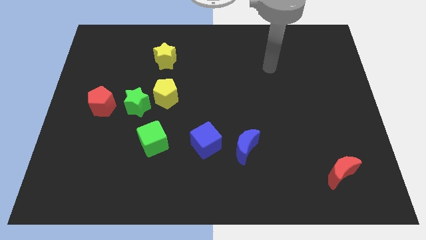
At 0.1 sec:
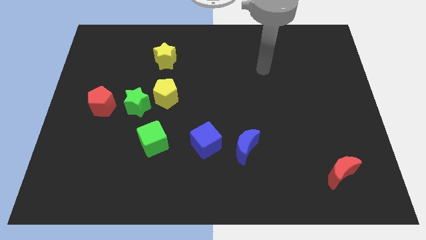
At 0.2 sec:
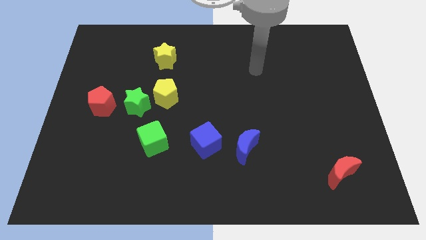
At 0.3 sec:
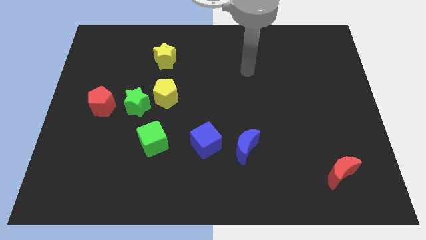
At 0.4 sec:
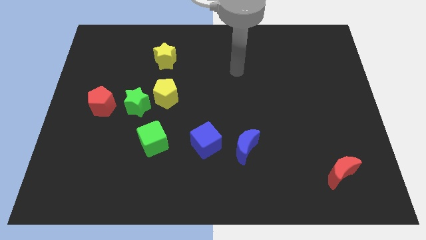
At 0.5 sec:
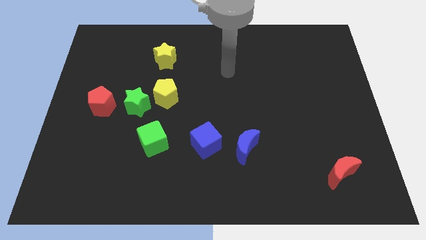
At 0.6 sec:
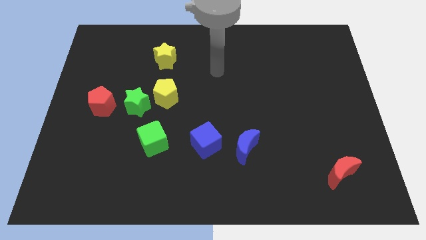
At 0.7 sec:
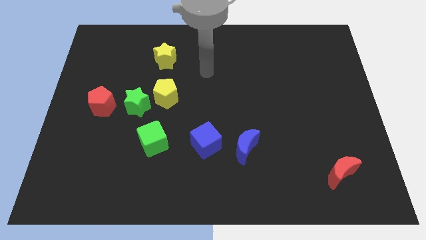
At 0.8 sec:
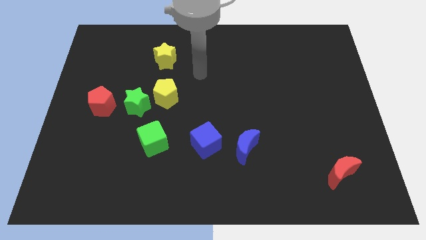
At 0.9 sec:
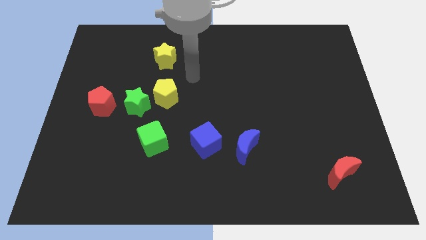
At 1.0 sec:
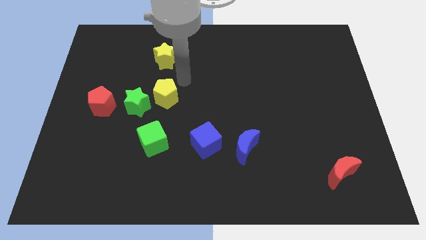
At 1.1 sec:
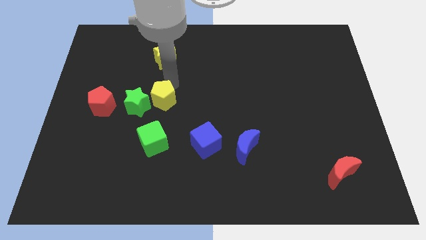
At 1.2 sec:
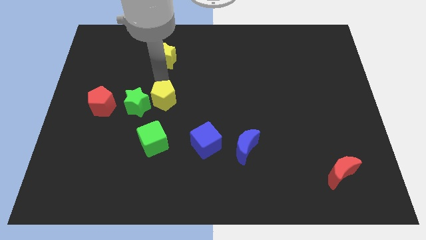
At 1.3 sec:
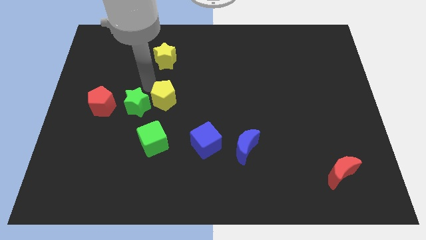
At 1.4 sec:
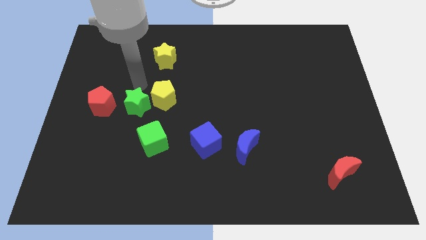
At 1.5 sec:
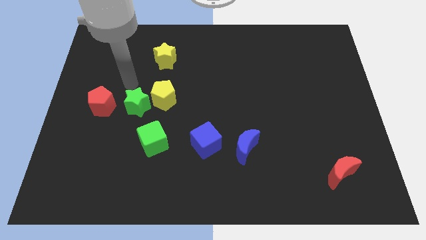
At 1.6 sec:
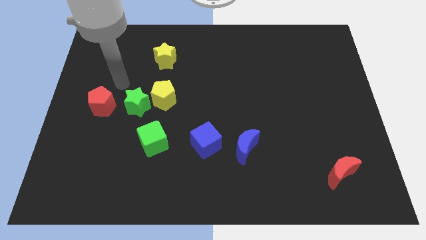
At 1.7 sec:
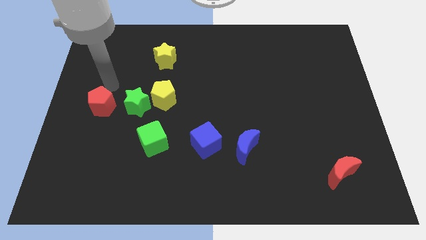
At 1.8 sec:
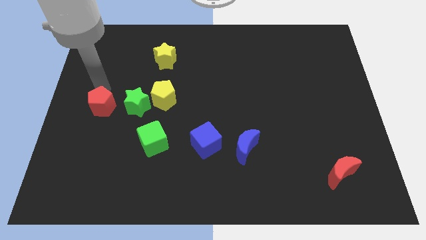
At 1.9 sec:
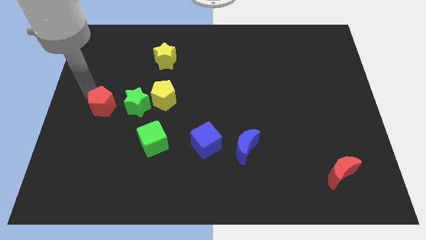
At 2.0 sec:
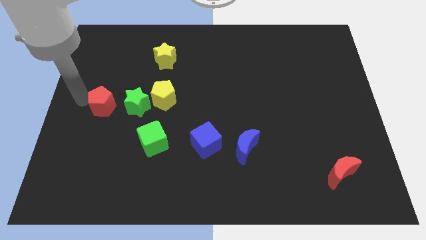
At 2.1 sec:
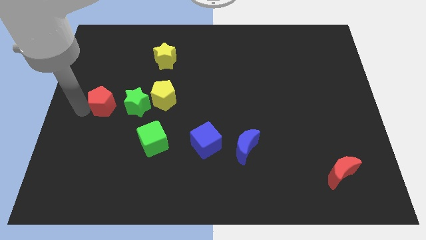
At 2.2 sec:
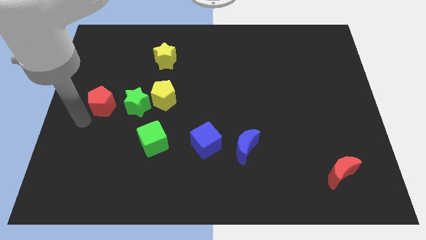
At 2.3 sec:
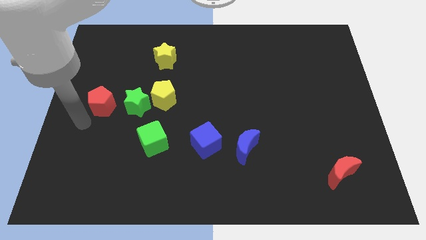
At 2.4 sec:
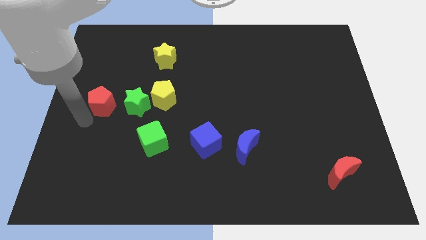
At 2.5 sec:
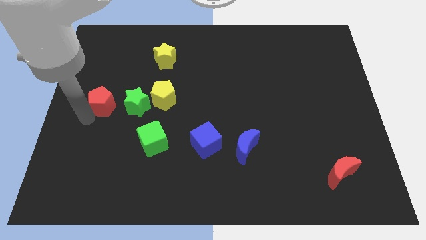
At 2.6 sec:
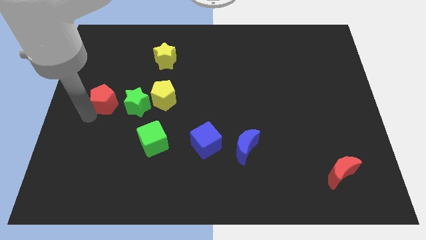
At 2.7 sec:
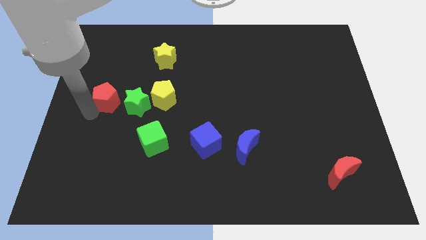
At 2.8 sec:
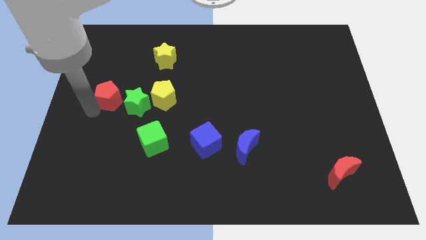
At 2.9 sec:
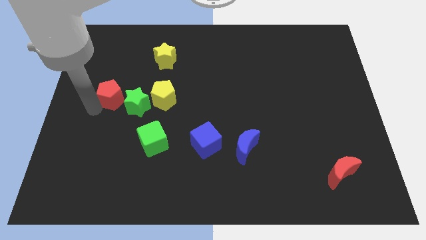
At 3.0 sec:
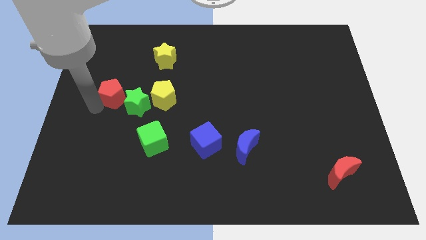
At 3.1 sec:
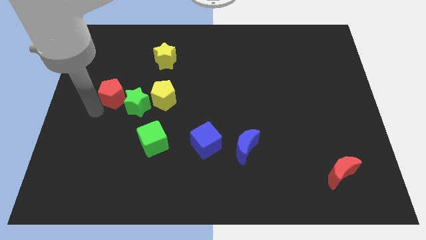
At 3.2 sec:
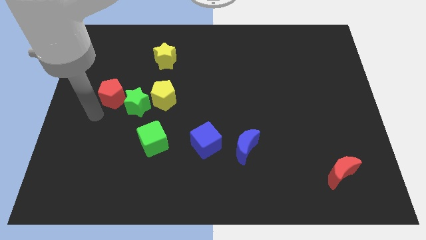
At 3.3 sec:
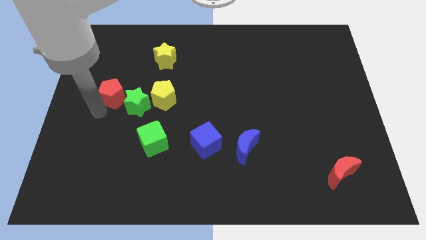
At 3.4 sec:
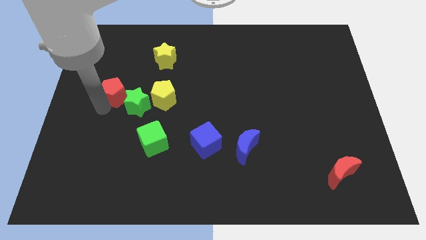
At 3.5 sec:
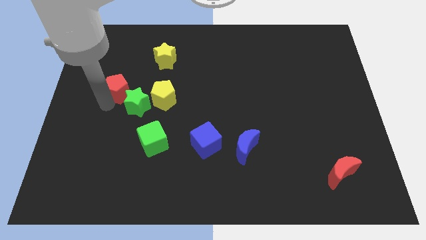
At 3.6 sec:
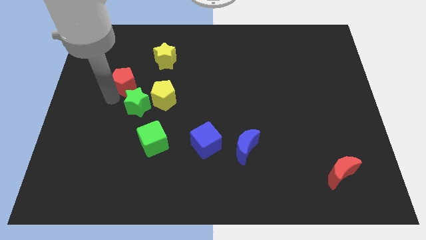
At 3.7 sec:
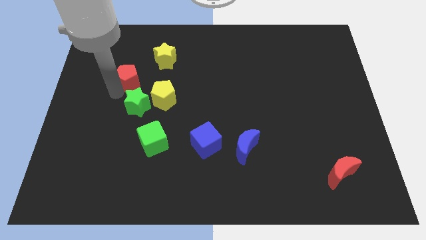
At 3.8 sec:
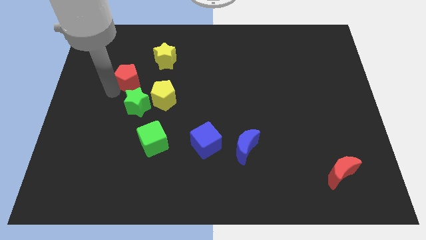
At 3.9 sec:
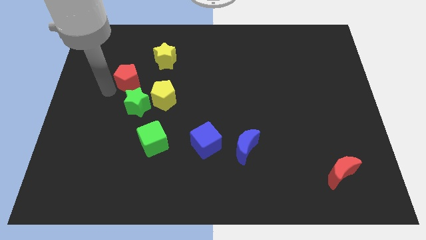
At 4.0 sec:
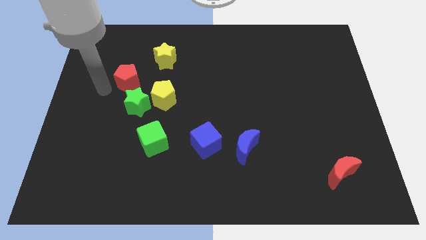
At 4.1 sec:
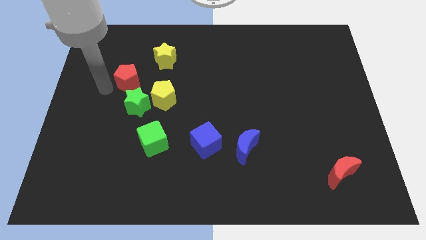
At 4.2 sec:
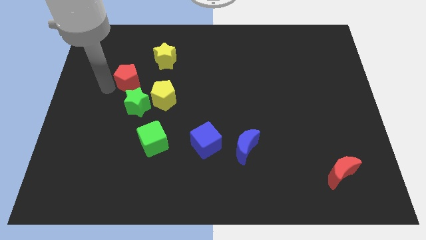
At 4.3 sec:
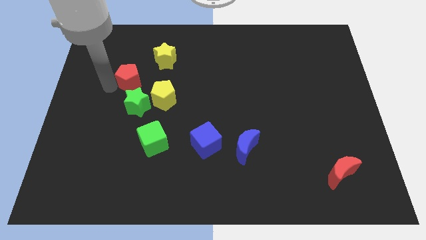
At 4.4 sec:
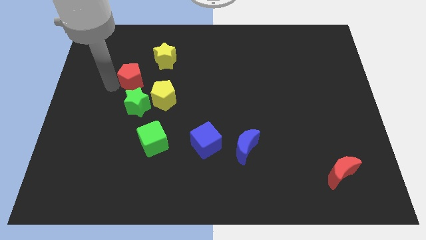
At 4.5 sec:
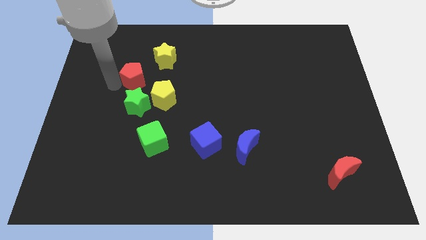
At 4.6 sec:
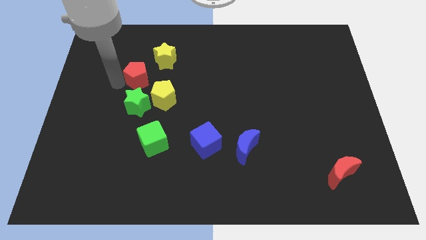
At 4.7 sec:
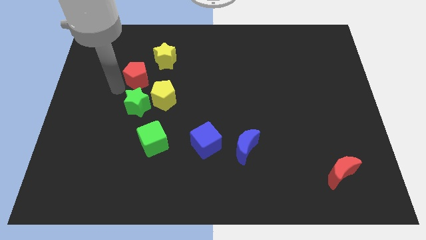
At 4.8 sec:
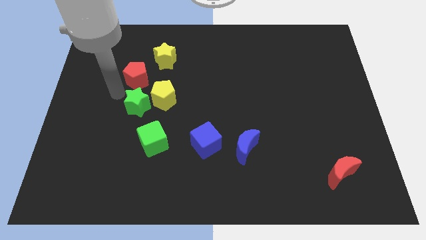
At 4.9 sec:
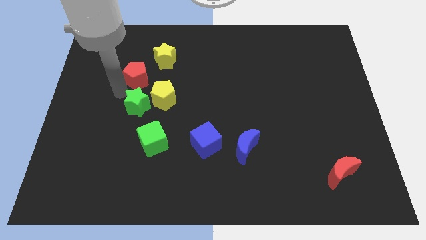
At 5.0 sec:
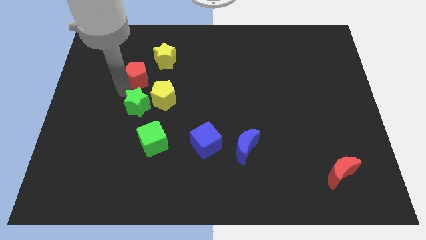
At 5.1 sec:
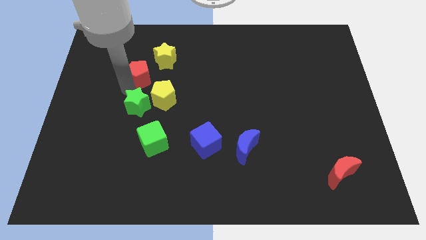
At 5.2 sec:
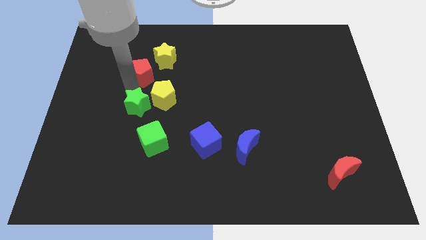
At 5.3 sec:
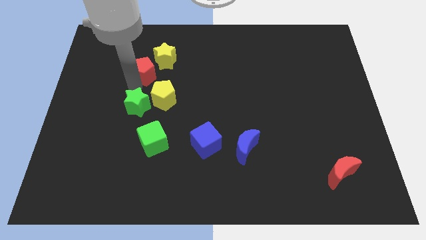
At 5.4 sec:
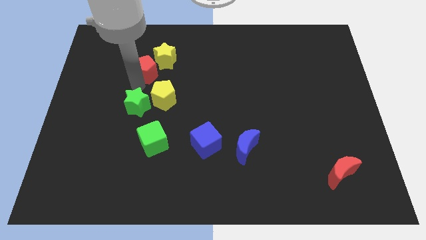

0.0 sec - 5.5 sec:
slide the red pentagon next to the yellow star

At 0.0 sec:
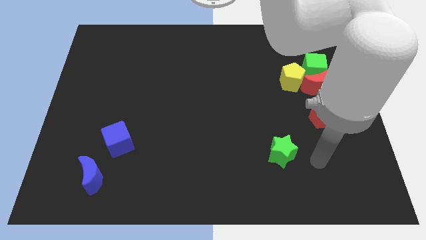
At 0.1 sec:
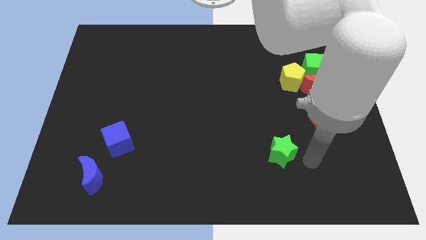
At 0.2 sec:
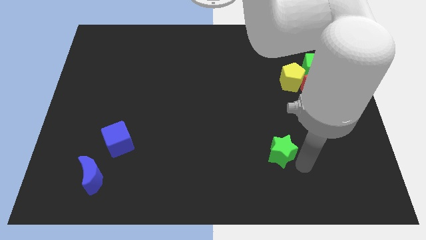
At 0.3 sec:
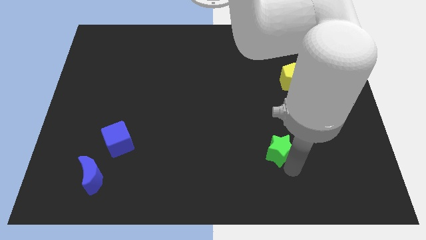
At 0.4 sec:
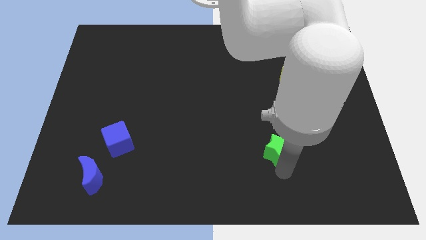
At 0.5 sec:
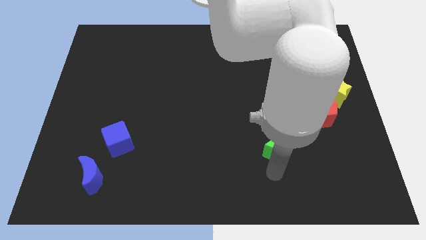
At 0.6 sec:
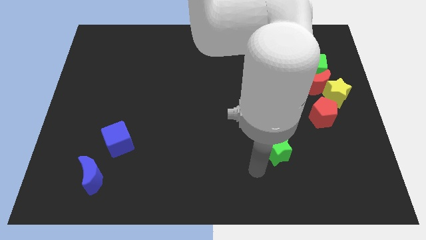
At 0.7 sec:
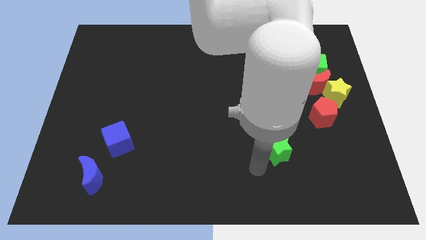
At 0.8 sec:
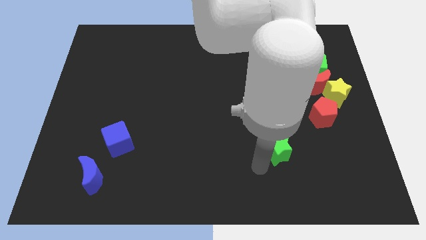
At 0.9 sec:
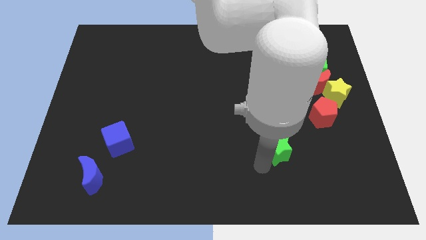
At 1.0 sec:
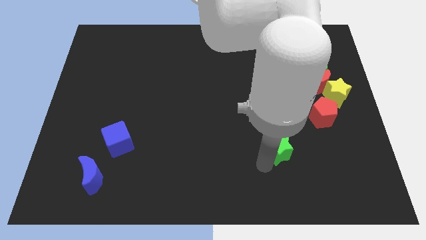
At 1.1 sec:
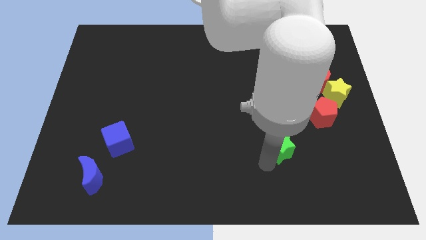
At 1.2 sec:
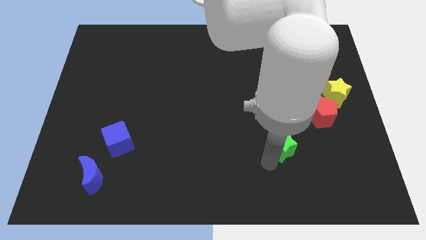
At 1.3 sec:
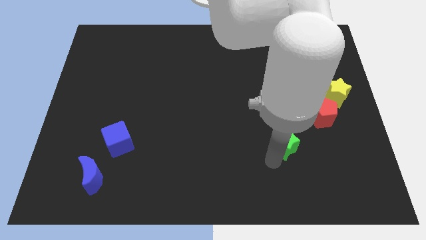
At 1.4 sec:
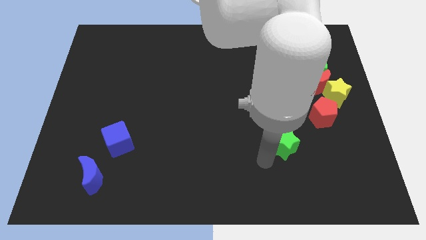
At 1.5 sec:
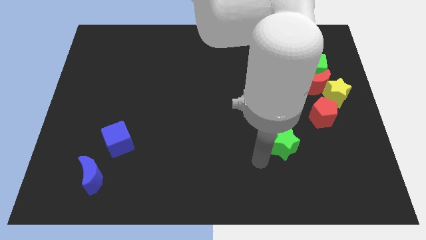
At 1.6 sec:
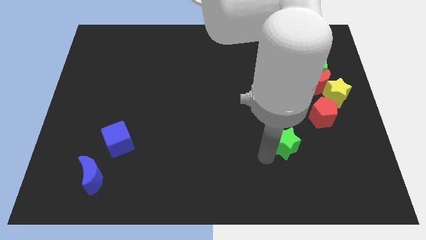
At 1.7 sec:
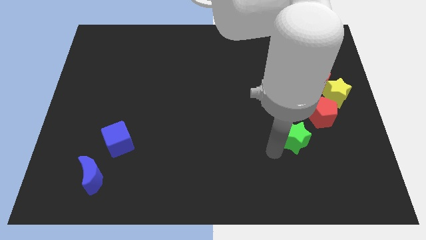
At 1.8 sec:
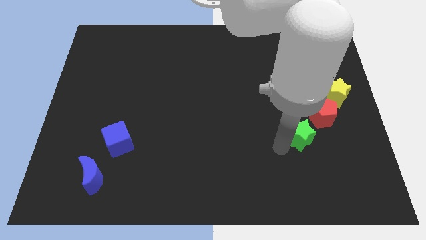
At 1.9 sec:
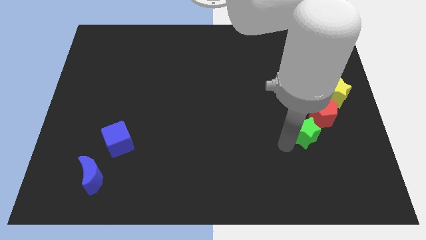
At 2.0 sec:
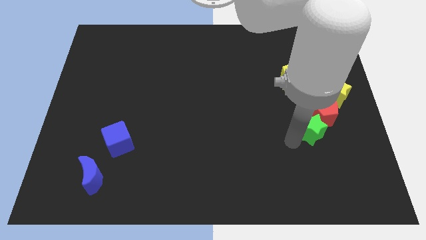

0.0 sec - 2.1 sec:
slide the green star close to the red pentagon
